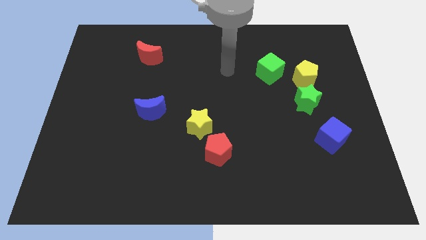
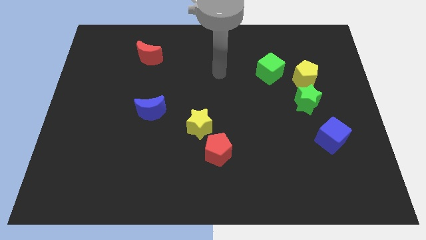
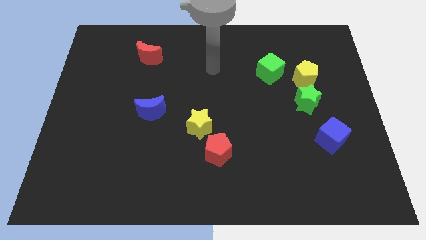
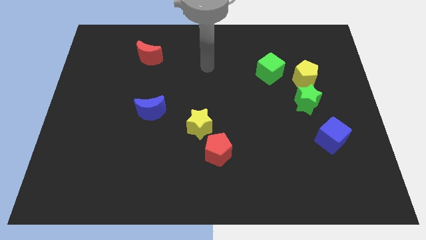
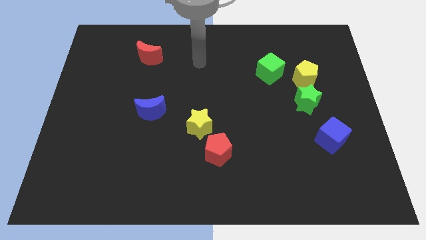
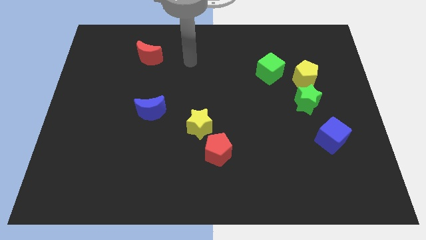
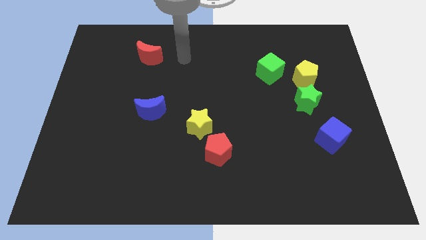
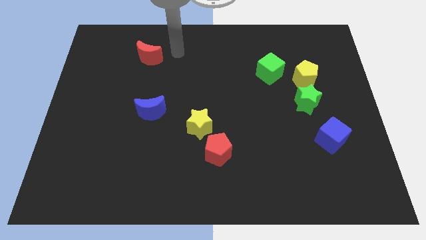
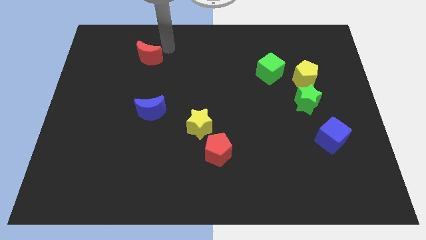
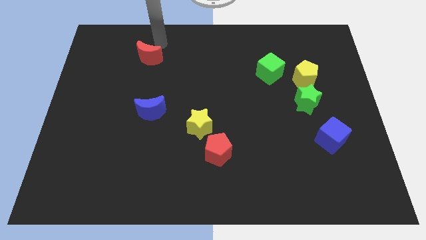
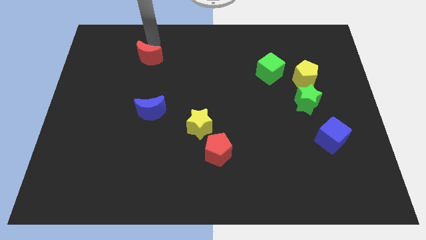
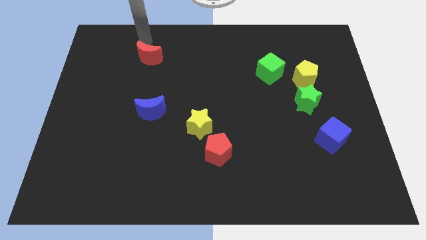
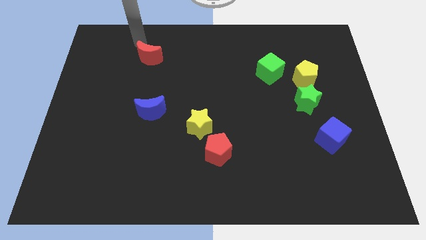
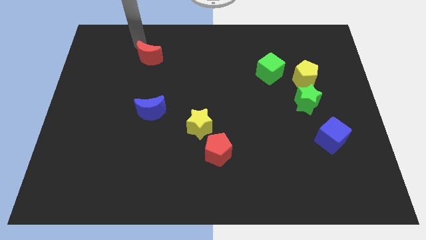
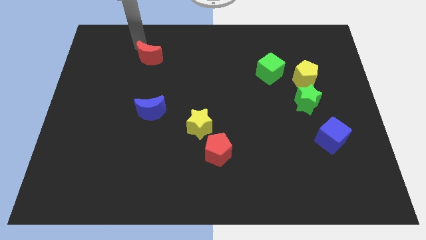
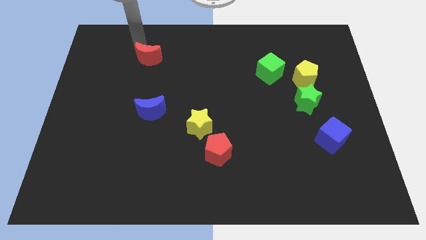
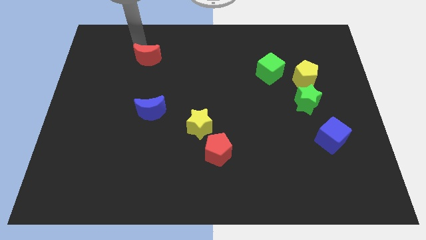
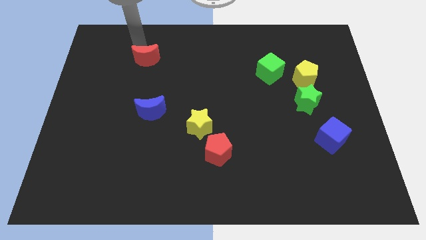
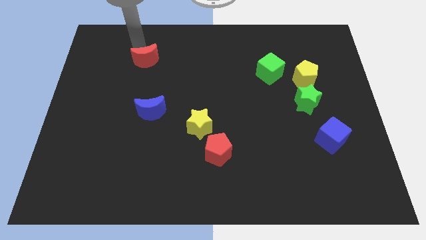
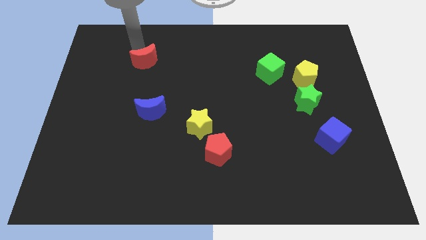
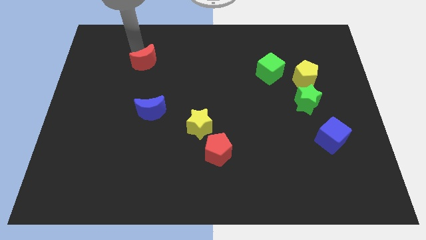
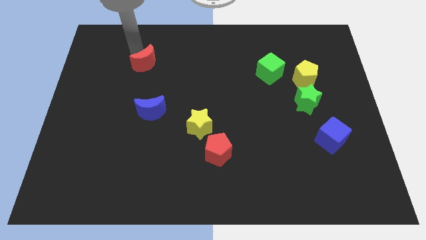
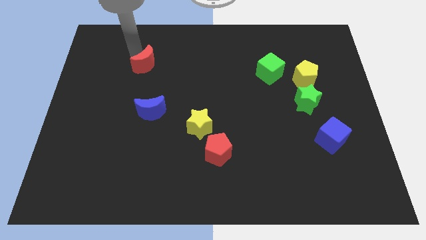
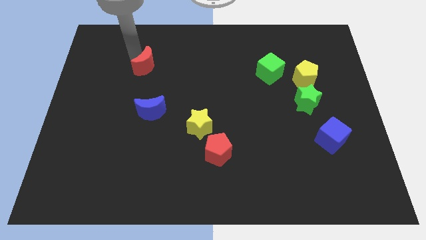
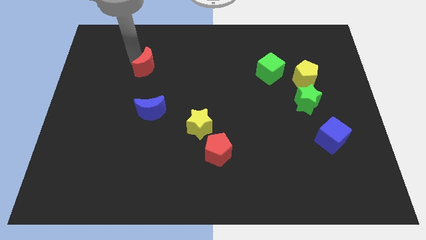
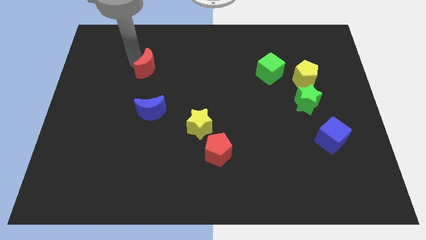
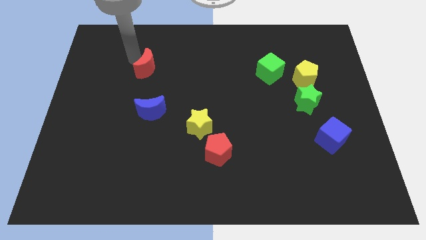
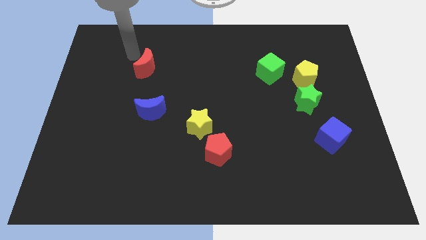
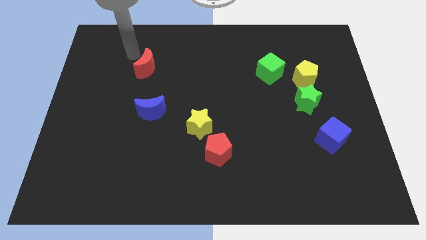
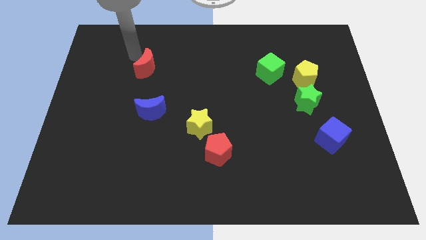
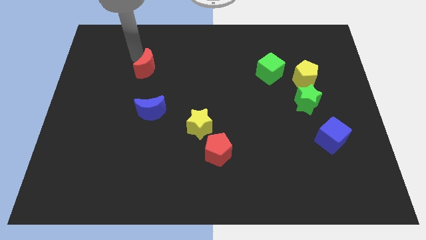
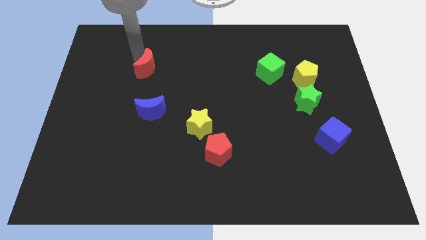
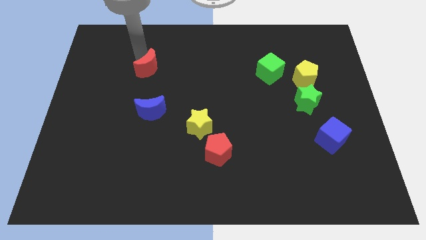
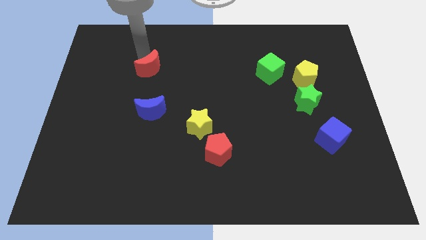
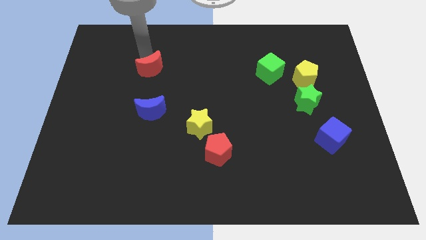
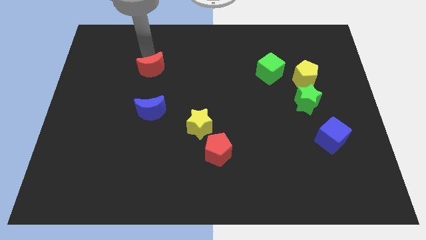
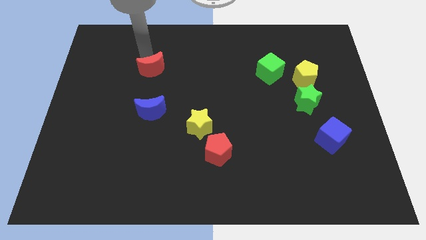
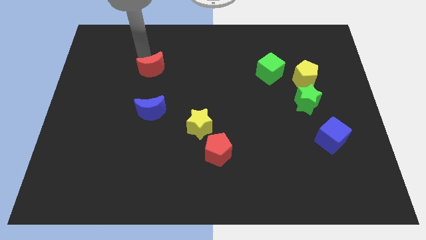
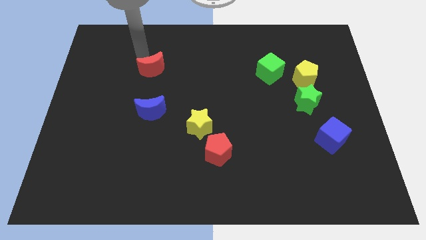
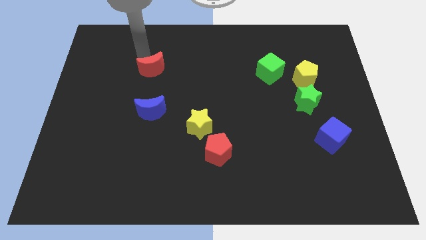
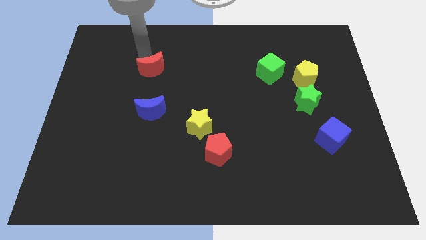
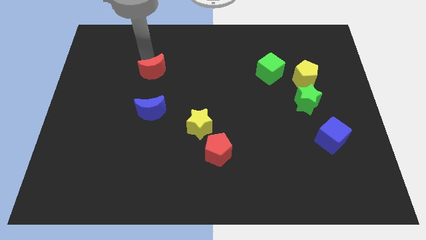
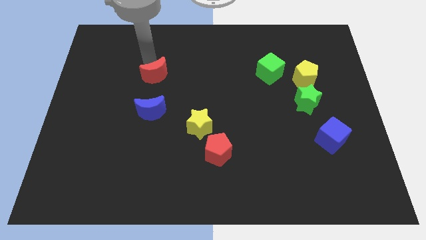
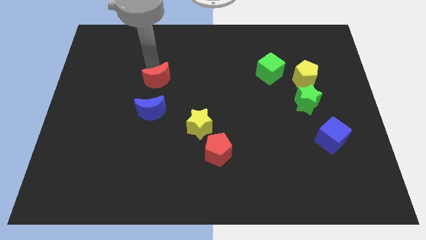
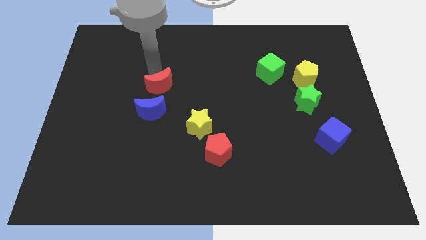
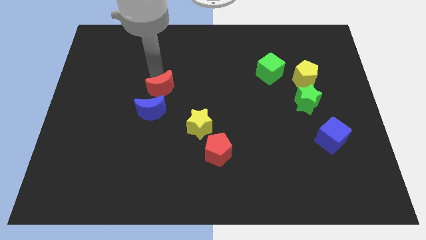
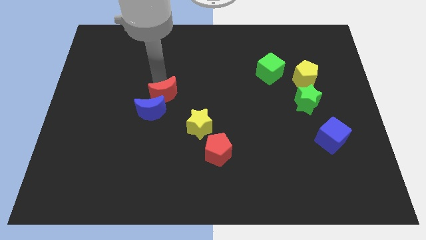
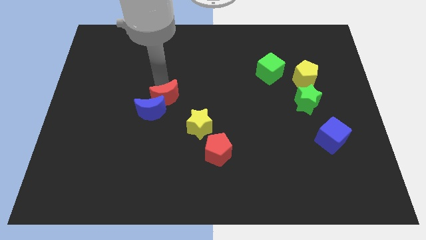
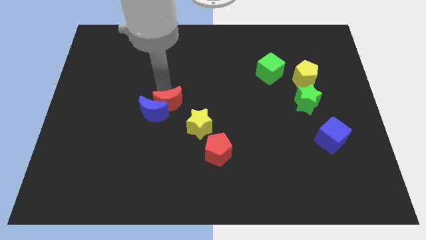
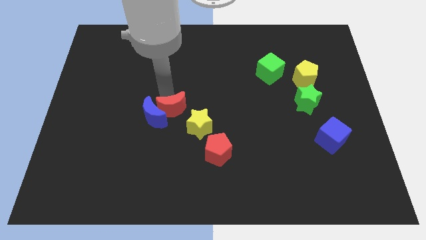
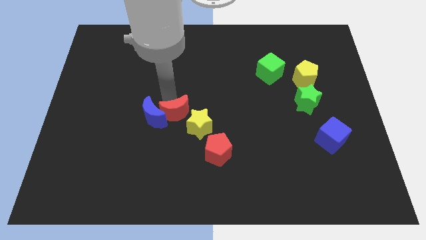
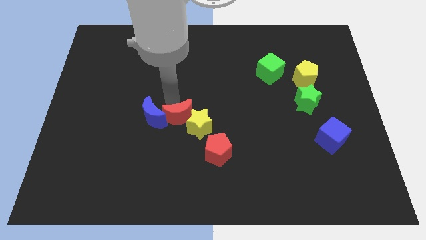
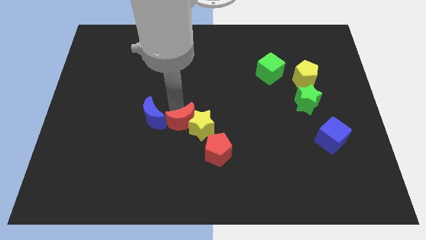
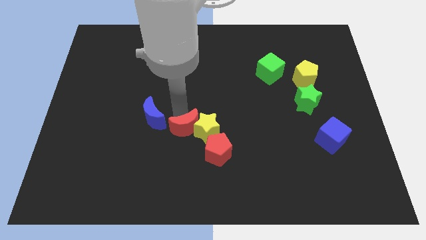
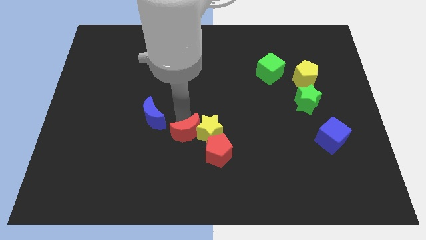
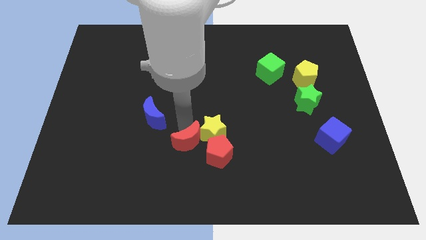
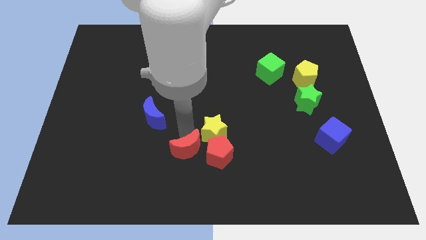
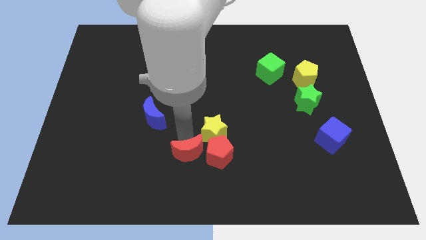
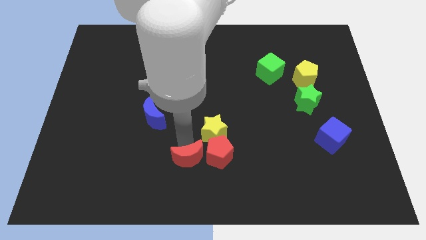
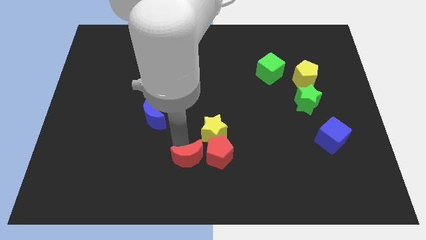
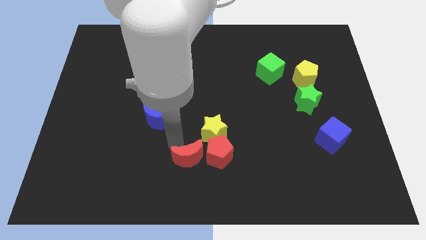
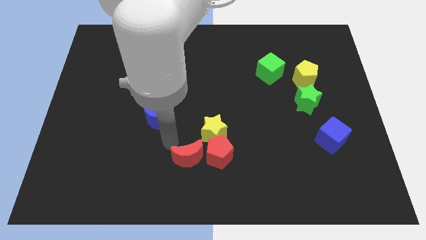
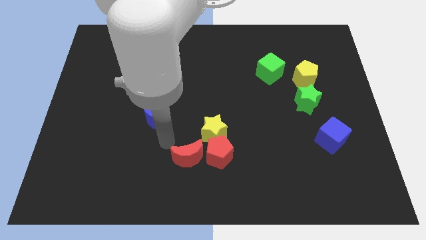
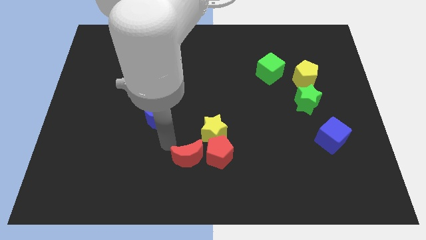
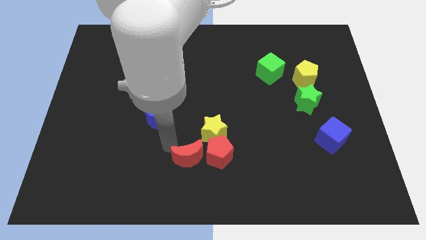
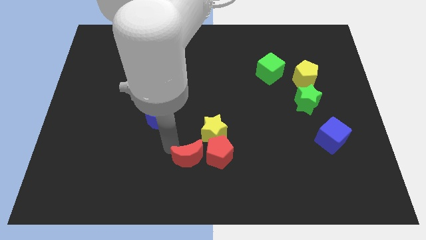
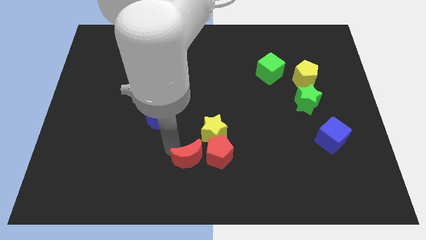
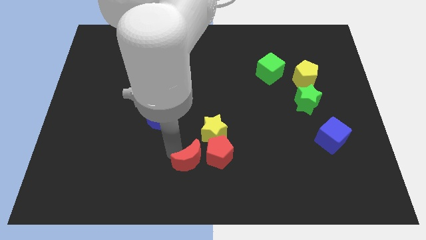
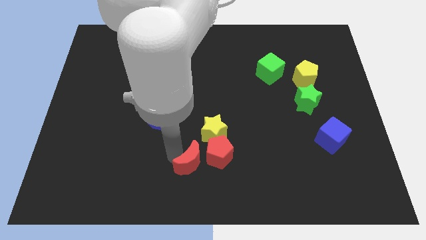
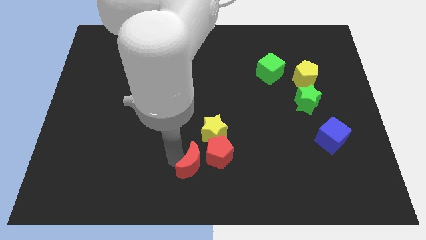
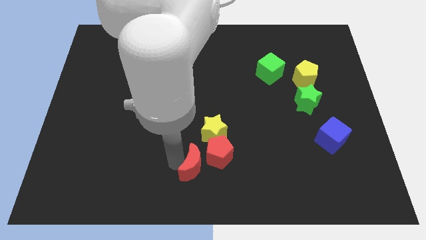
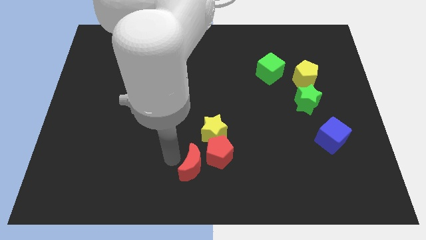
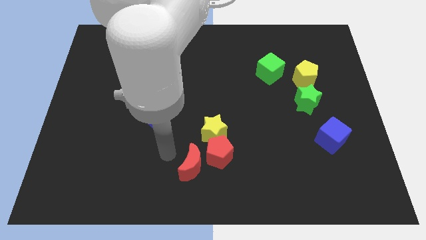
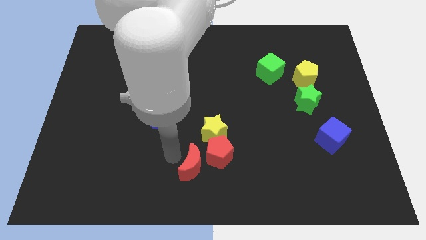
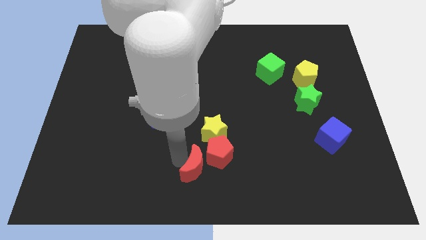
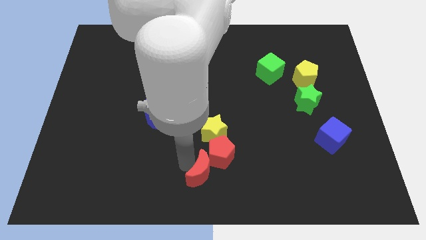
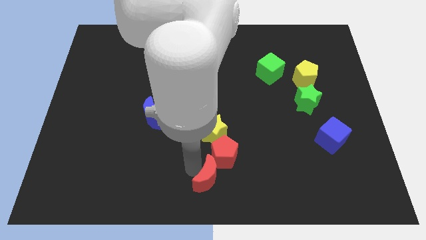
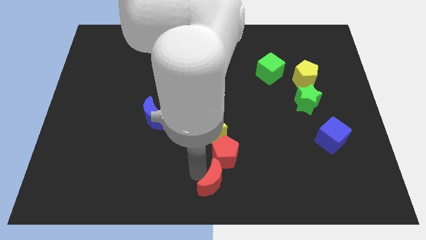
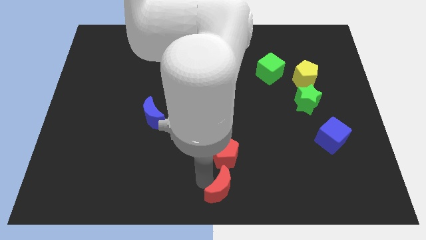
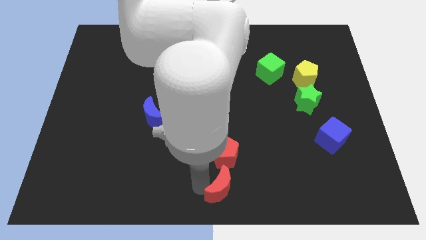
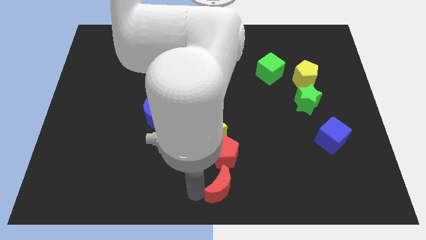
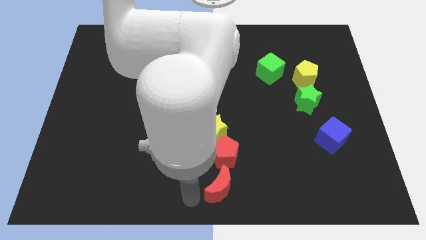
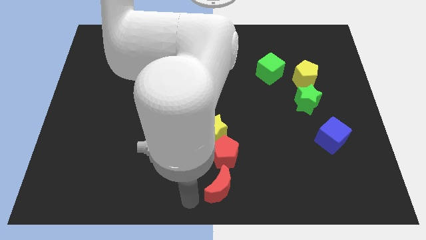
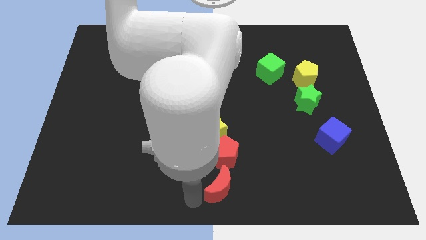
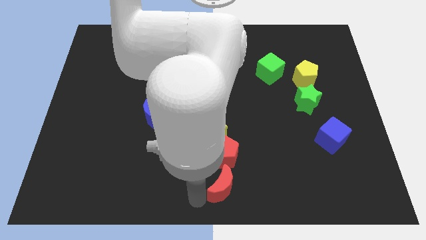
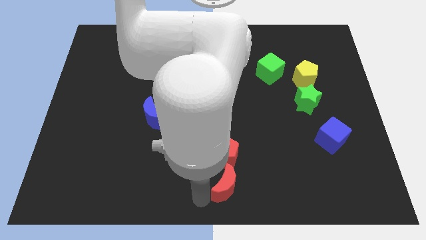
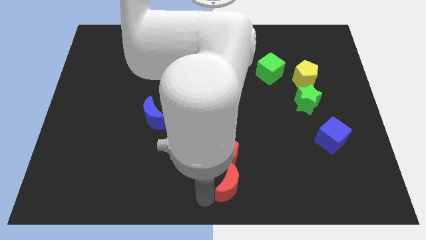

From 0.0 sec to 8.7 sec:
move the red moon to the bottom right side of the red pentagon
